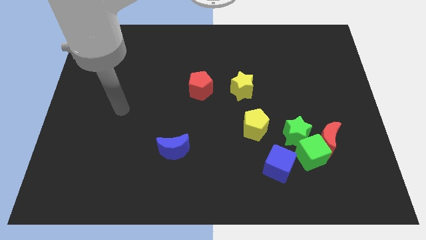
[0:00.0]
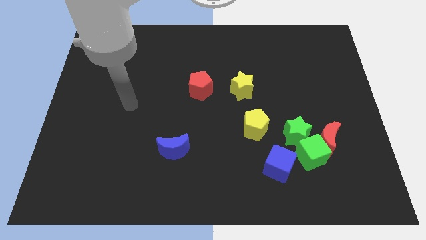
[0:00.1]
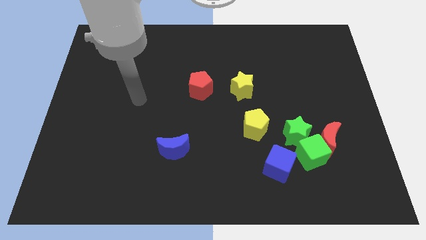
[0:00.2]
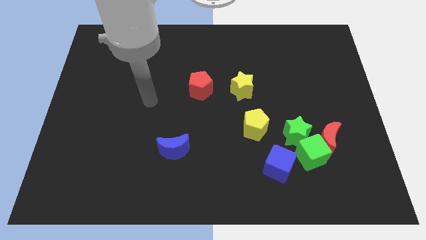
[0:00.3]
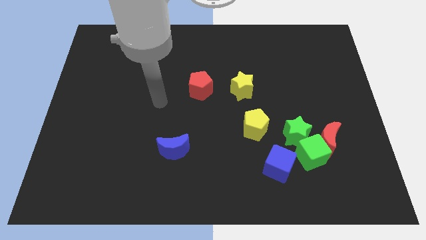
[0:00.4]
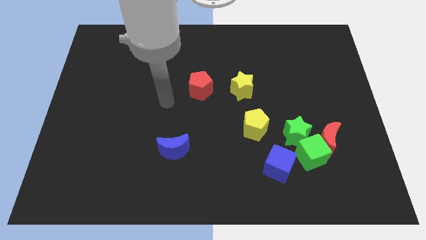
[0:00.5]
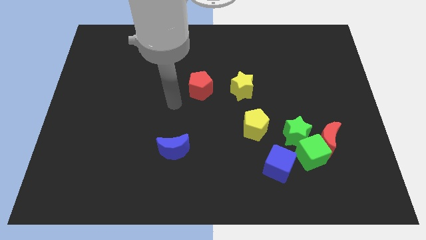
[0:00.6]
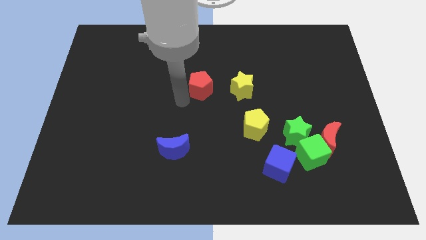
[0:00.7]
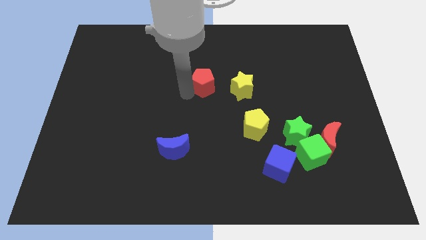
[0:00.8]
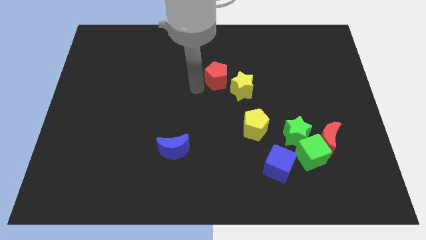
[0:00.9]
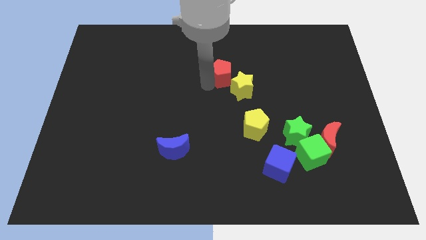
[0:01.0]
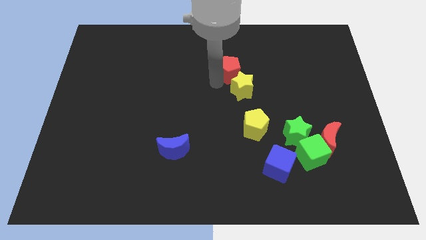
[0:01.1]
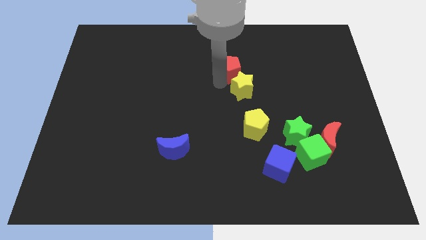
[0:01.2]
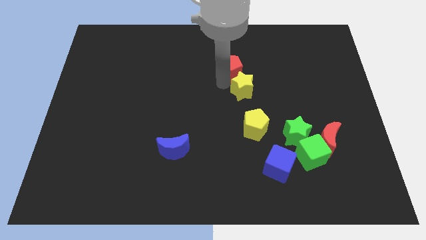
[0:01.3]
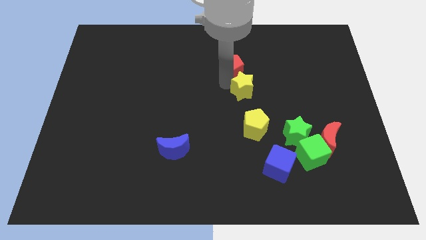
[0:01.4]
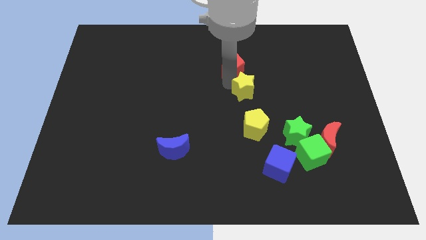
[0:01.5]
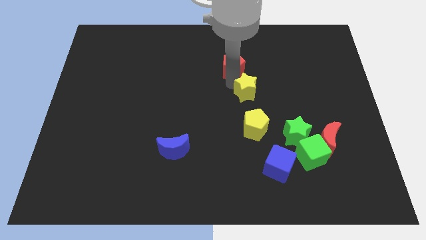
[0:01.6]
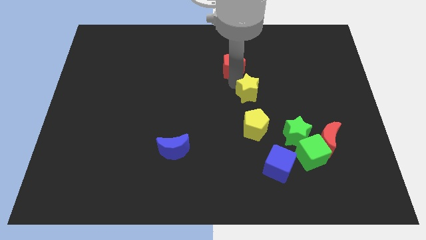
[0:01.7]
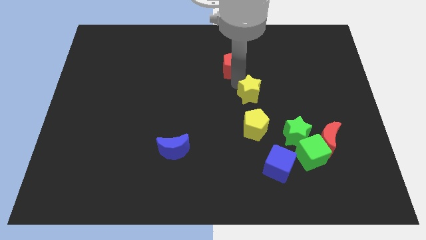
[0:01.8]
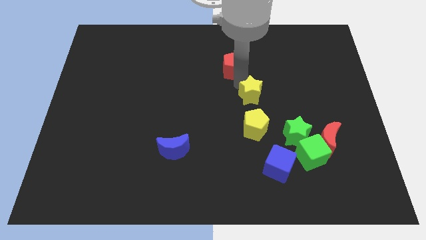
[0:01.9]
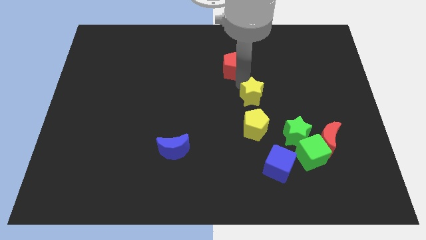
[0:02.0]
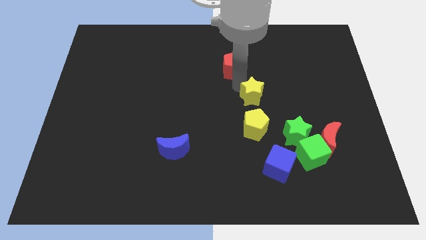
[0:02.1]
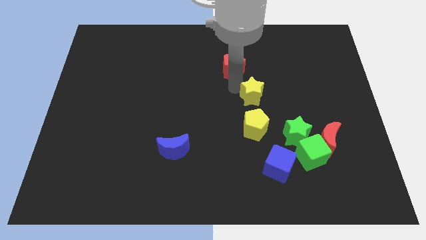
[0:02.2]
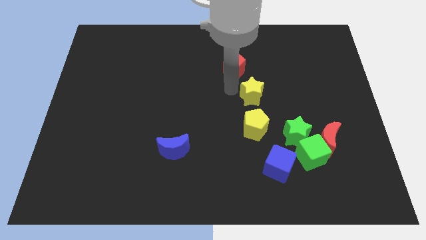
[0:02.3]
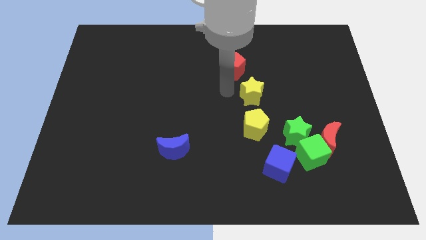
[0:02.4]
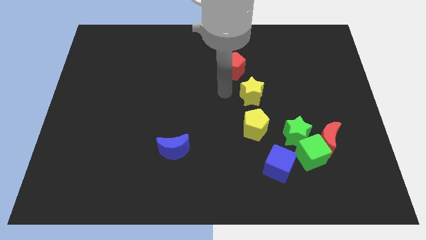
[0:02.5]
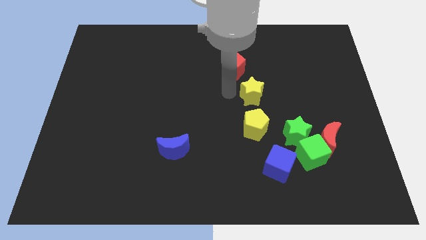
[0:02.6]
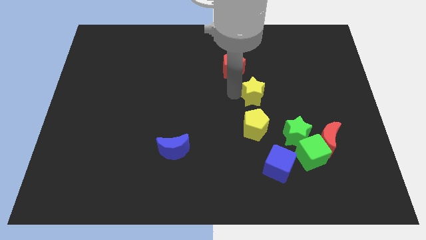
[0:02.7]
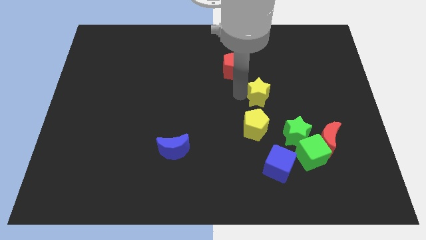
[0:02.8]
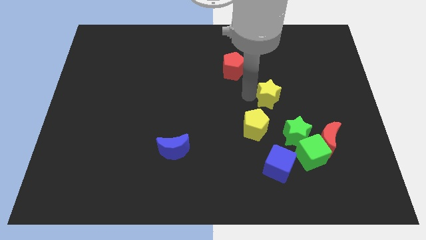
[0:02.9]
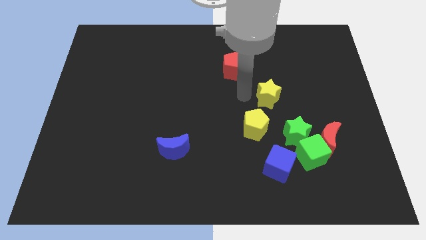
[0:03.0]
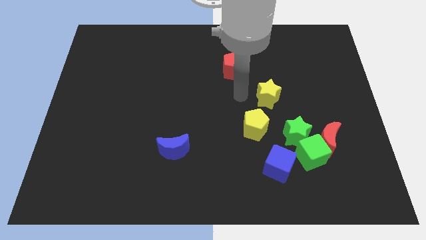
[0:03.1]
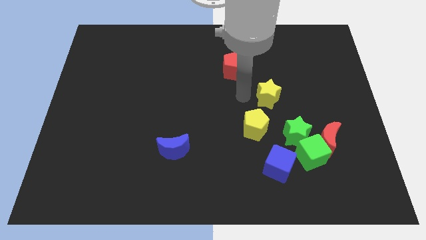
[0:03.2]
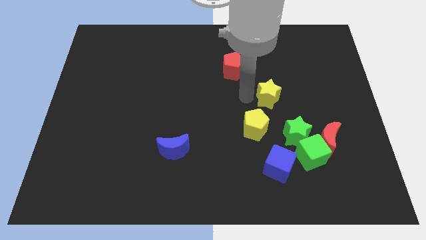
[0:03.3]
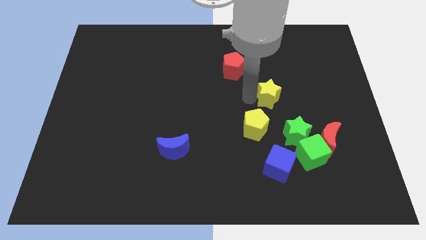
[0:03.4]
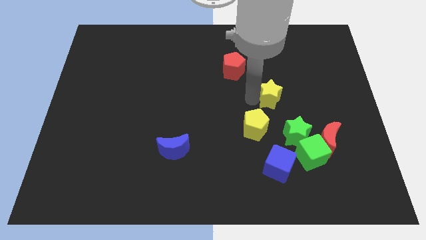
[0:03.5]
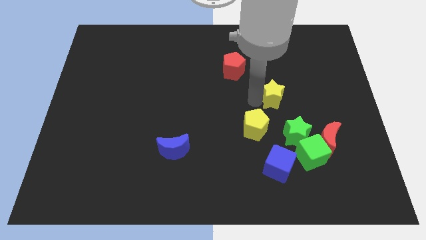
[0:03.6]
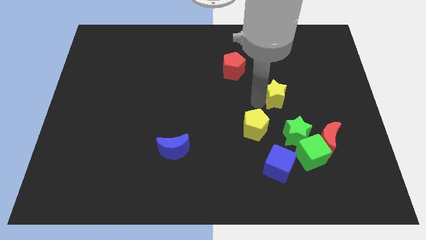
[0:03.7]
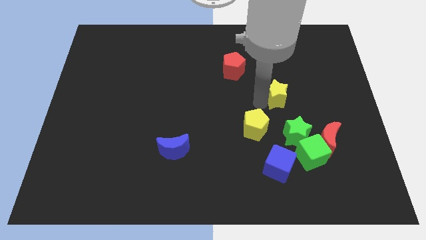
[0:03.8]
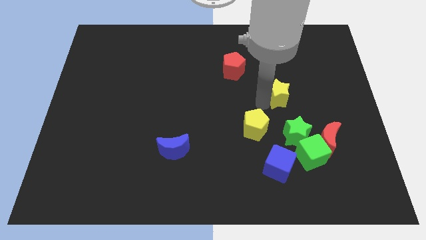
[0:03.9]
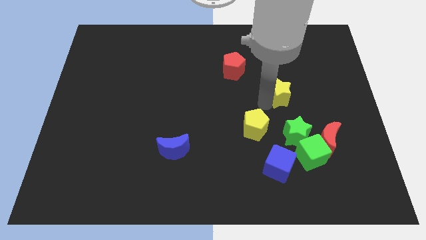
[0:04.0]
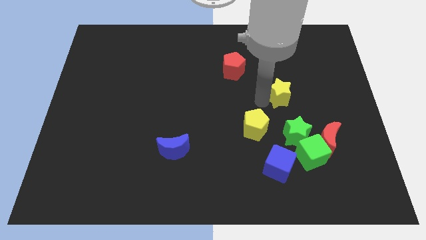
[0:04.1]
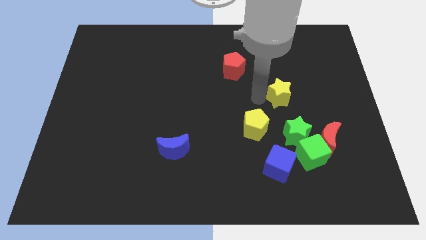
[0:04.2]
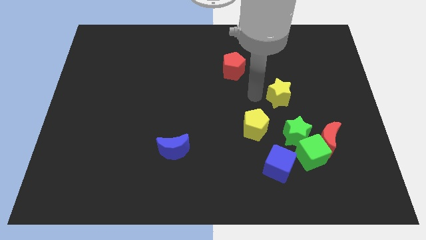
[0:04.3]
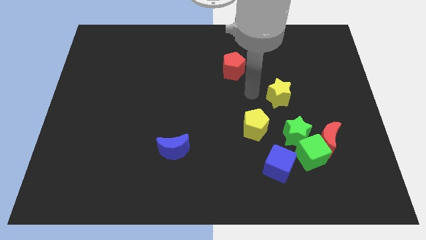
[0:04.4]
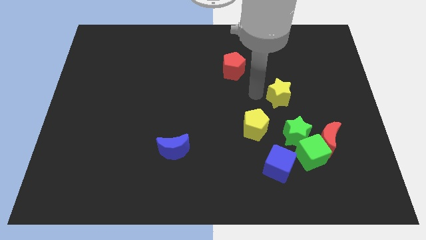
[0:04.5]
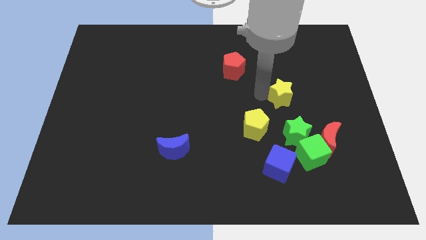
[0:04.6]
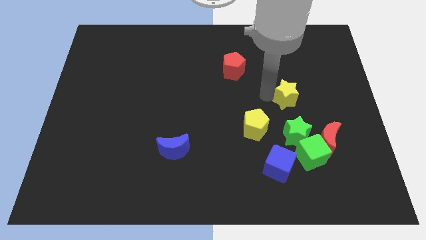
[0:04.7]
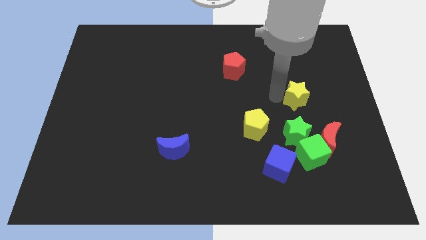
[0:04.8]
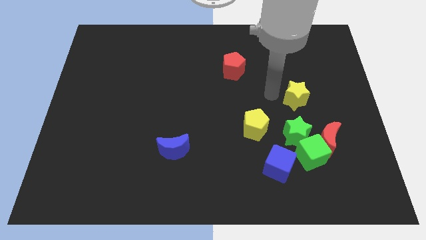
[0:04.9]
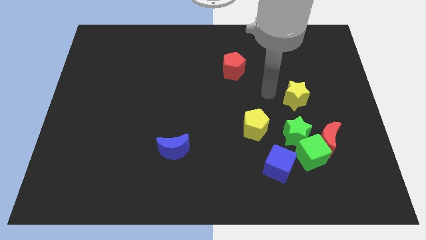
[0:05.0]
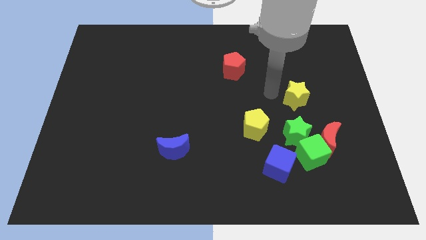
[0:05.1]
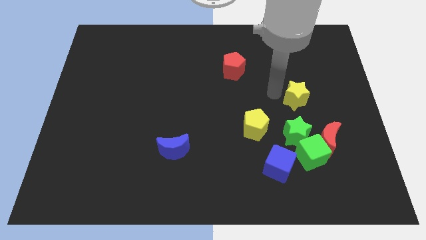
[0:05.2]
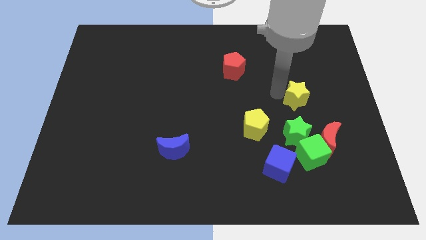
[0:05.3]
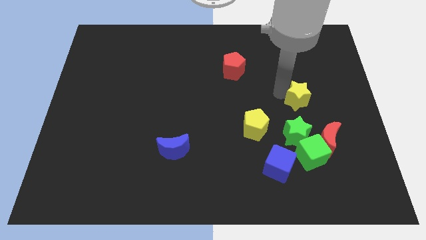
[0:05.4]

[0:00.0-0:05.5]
push the yellow star to the top side of the red moon

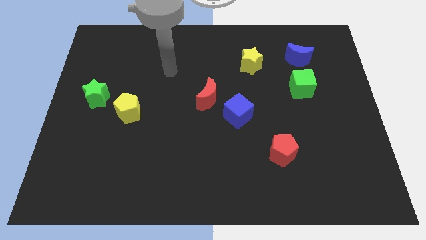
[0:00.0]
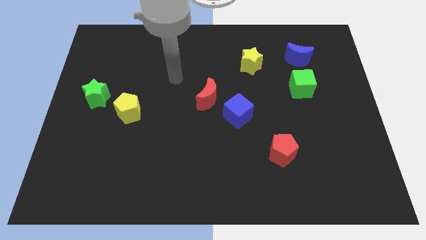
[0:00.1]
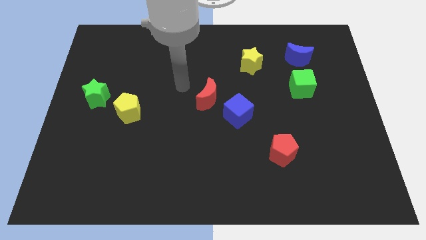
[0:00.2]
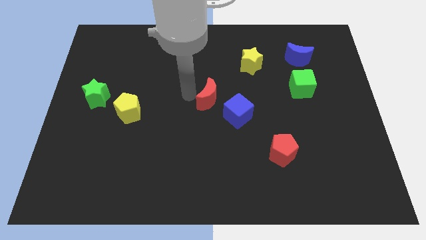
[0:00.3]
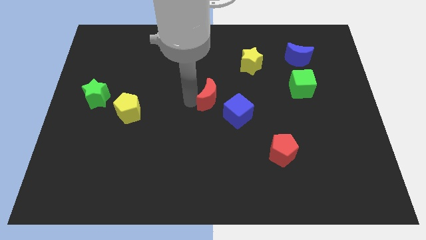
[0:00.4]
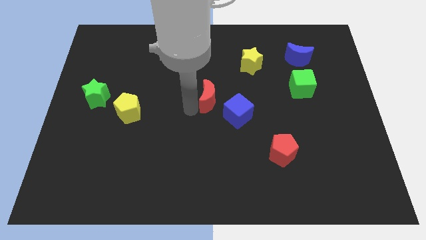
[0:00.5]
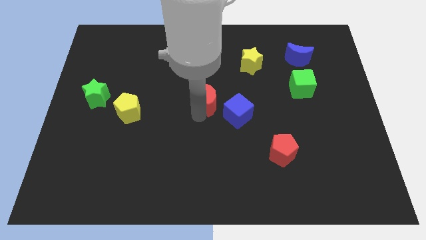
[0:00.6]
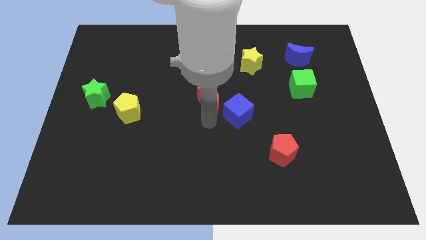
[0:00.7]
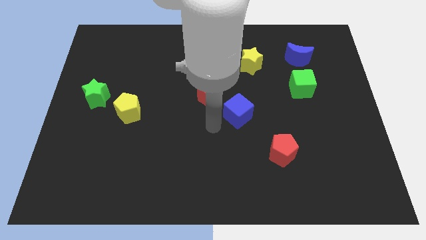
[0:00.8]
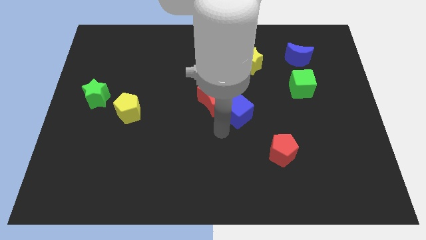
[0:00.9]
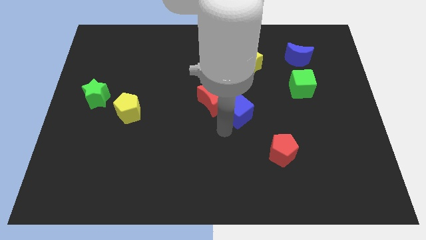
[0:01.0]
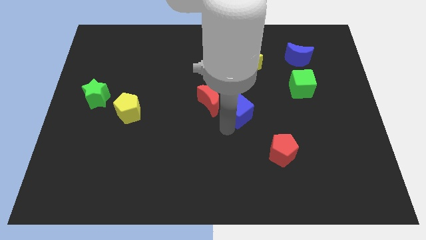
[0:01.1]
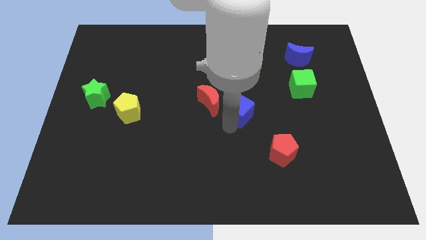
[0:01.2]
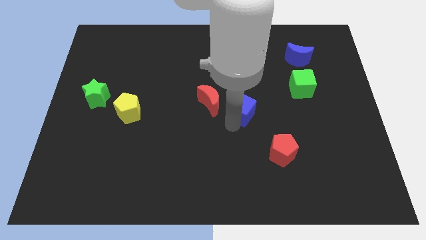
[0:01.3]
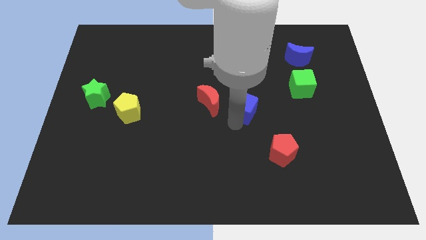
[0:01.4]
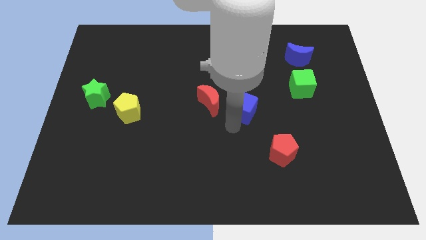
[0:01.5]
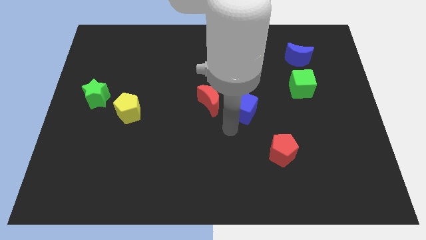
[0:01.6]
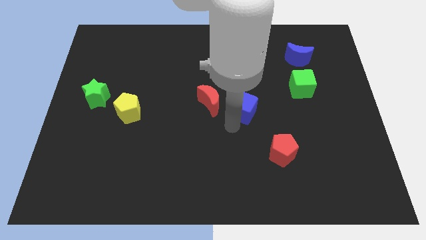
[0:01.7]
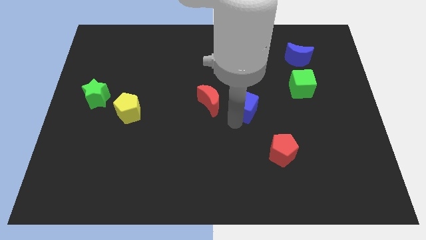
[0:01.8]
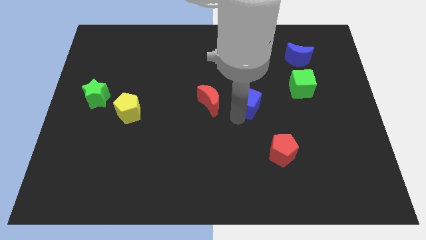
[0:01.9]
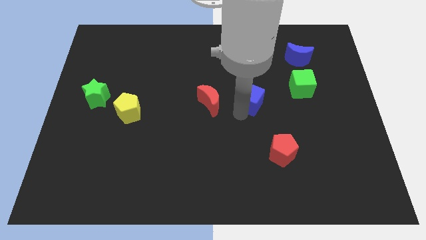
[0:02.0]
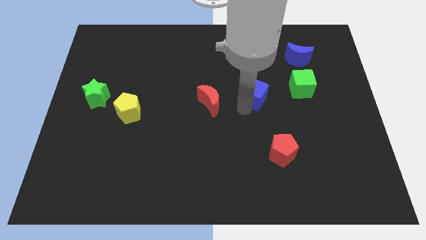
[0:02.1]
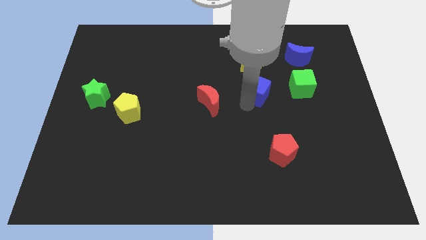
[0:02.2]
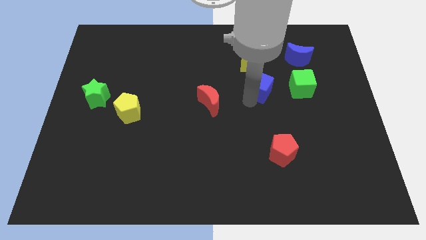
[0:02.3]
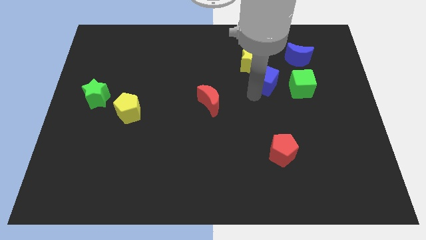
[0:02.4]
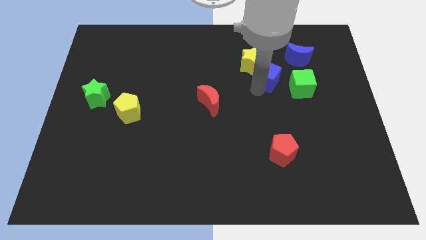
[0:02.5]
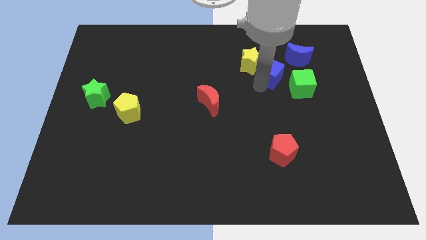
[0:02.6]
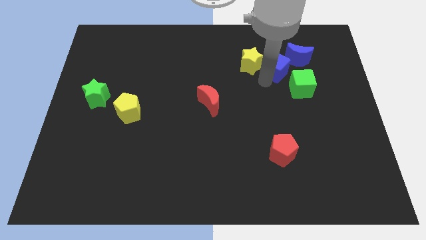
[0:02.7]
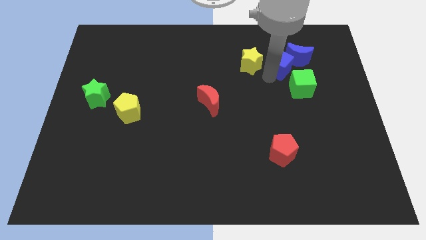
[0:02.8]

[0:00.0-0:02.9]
put the blue cube above the green cube
